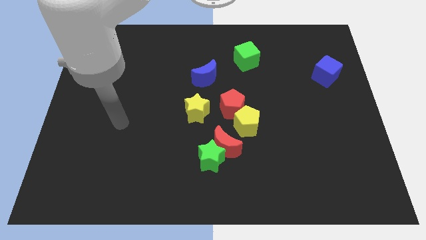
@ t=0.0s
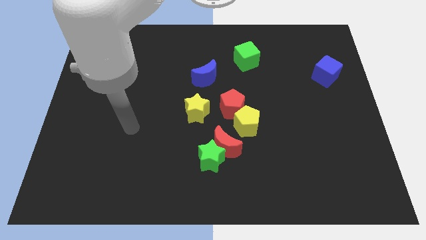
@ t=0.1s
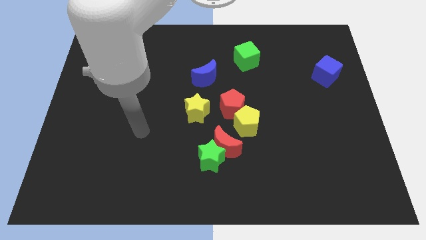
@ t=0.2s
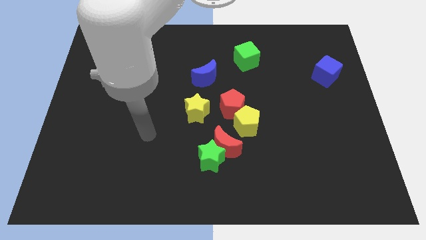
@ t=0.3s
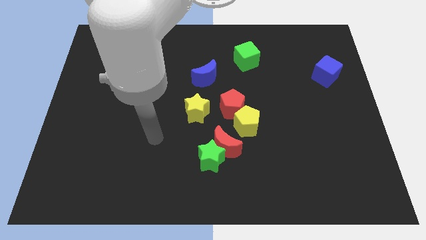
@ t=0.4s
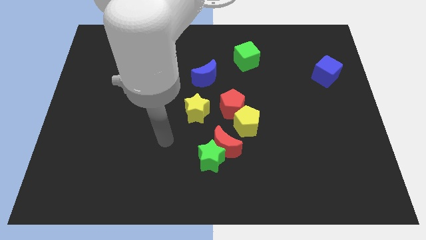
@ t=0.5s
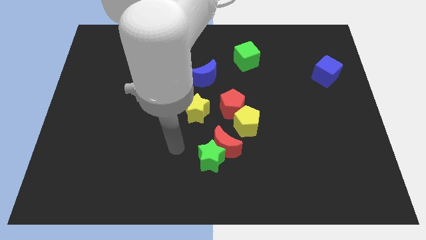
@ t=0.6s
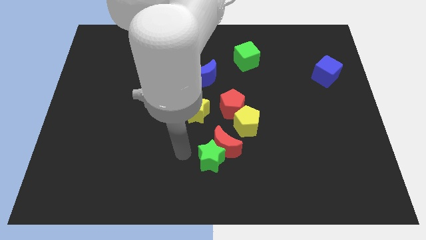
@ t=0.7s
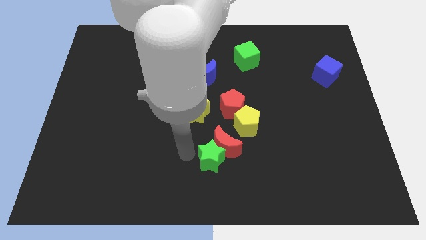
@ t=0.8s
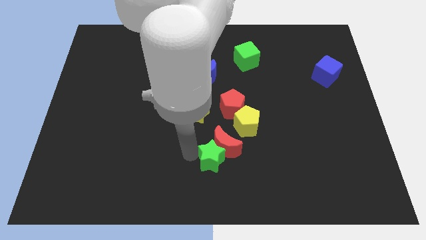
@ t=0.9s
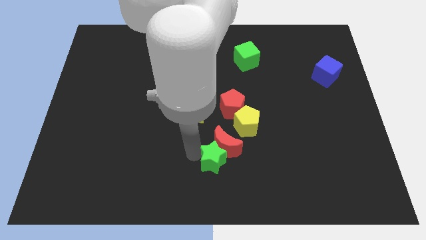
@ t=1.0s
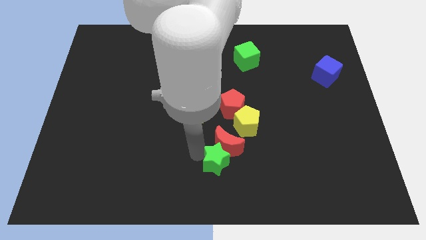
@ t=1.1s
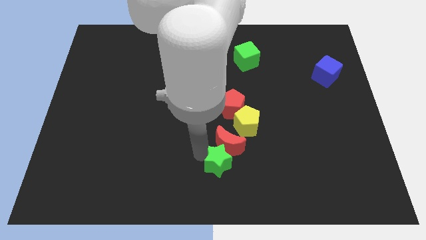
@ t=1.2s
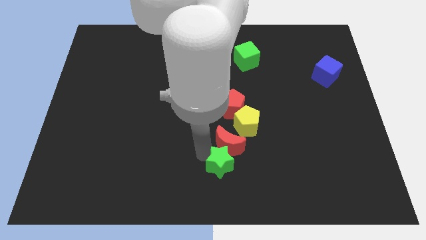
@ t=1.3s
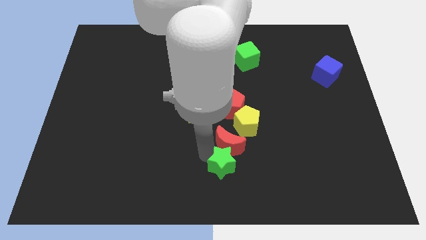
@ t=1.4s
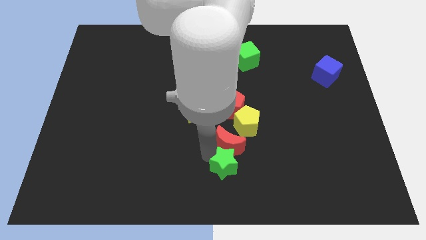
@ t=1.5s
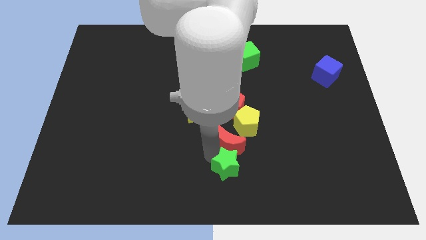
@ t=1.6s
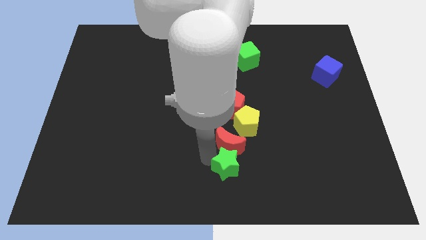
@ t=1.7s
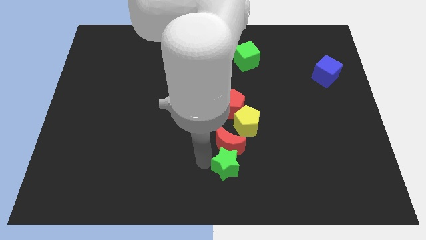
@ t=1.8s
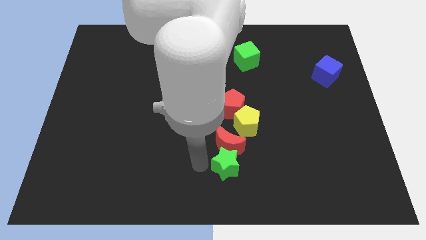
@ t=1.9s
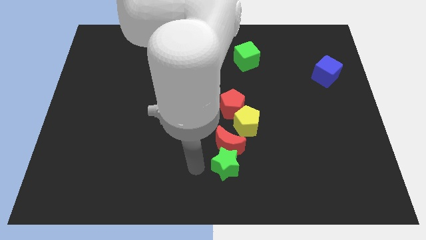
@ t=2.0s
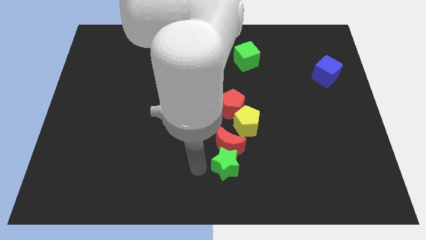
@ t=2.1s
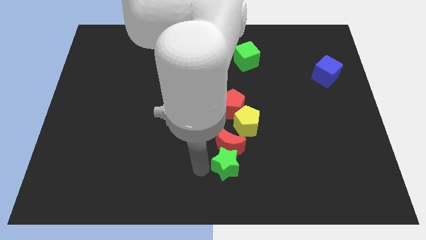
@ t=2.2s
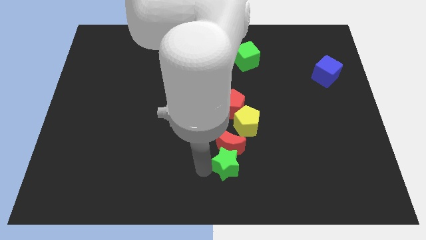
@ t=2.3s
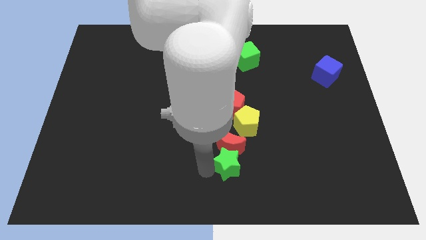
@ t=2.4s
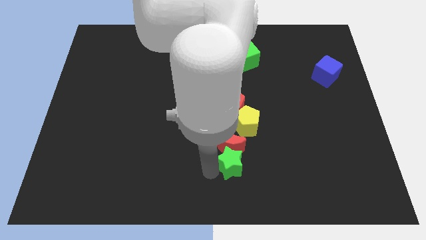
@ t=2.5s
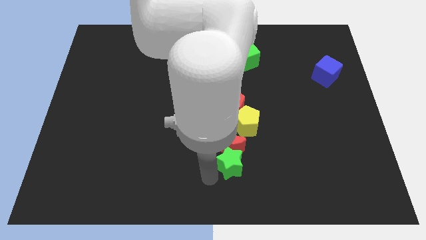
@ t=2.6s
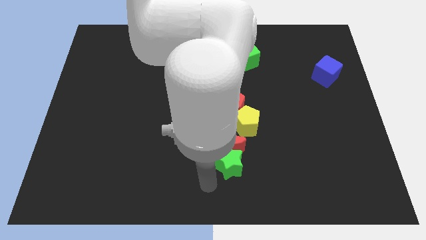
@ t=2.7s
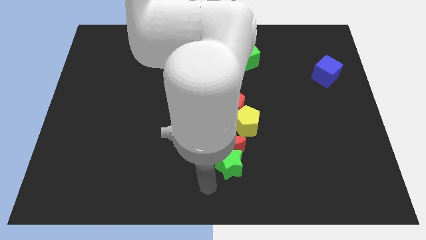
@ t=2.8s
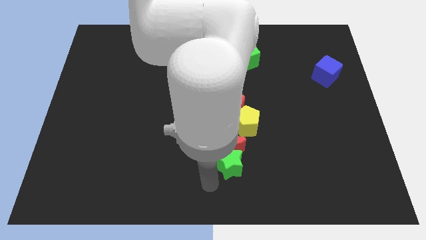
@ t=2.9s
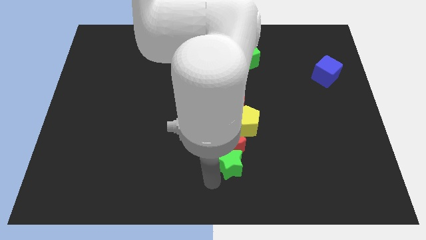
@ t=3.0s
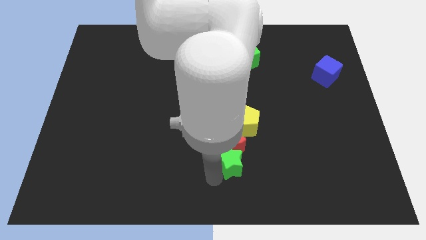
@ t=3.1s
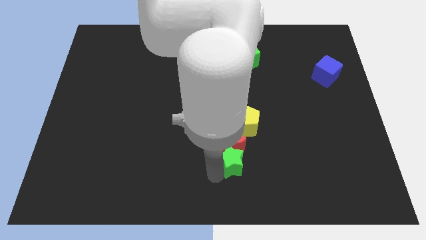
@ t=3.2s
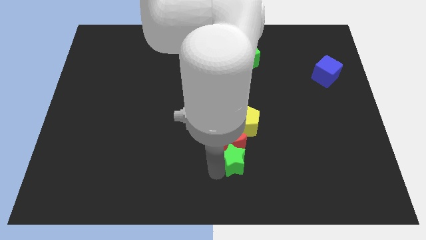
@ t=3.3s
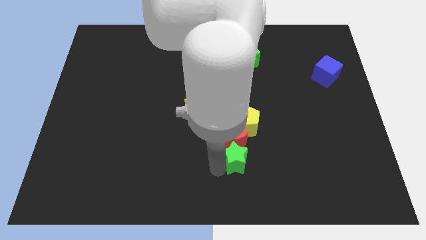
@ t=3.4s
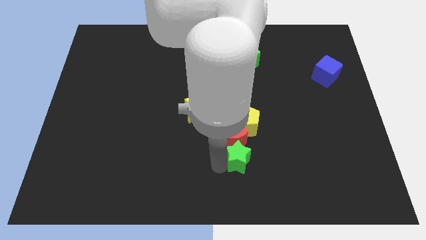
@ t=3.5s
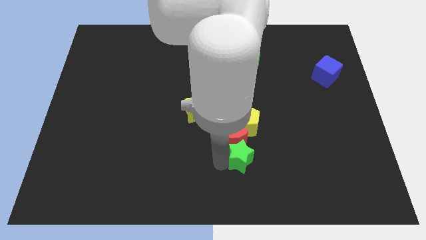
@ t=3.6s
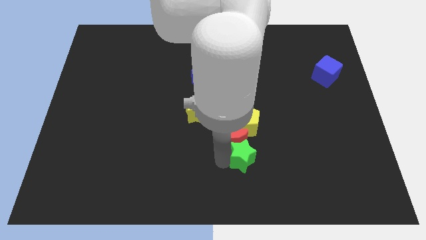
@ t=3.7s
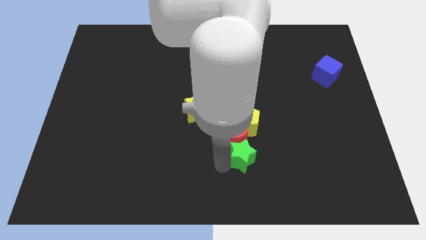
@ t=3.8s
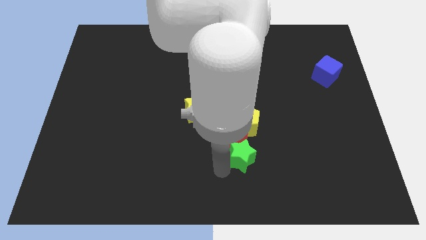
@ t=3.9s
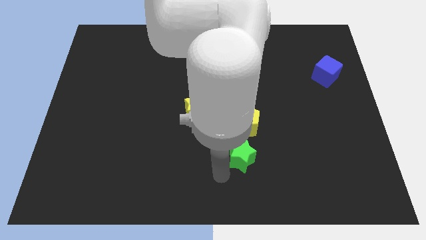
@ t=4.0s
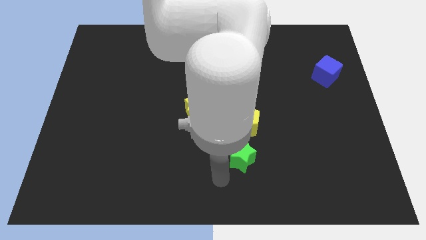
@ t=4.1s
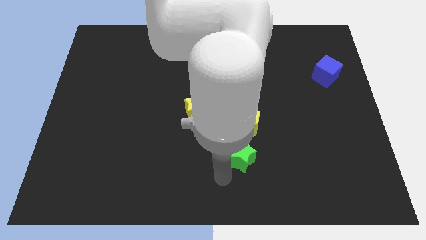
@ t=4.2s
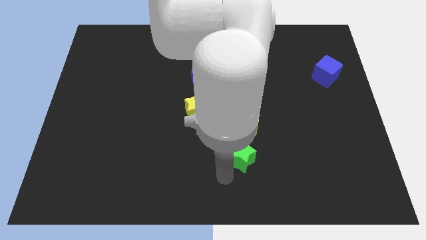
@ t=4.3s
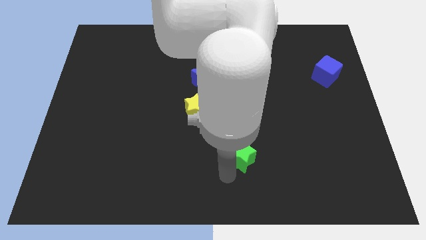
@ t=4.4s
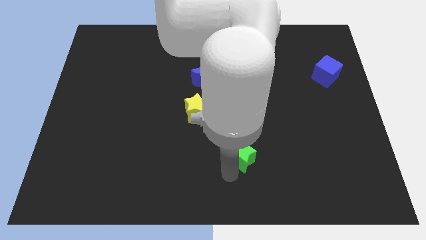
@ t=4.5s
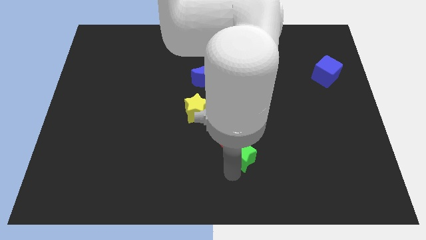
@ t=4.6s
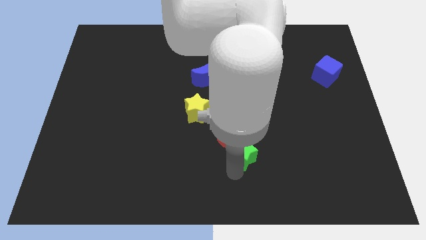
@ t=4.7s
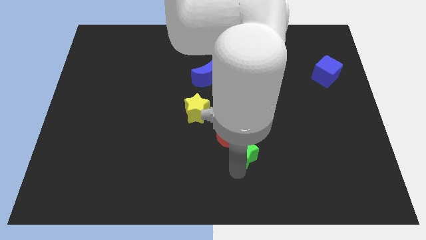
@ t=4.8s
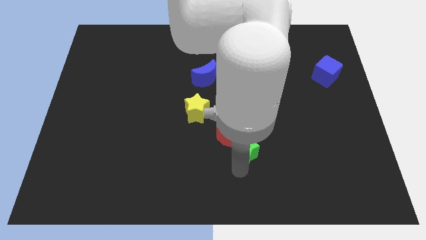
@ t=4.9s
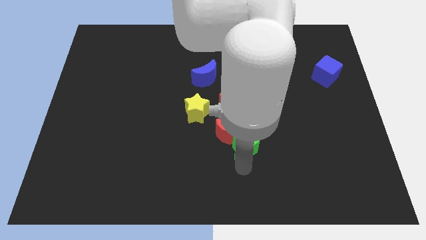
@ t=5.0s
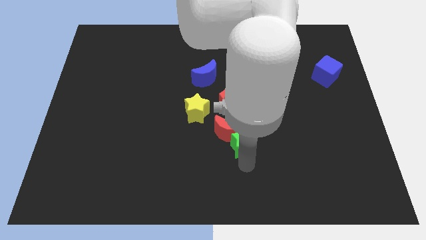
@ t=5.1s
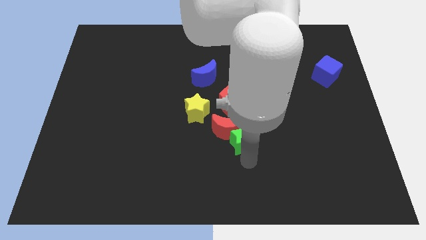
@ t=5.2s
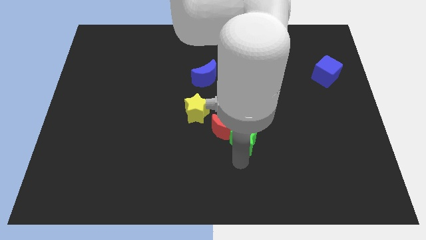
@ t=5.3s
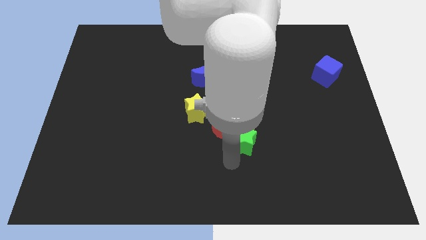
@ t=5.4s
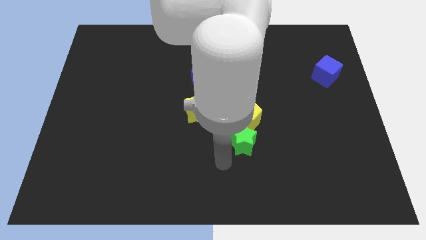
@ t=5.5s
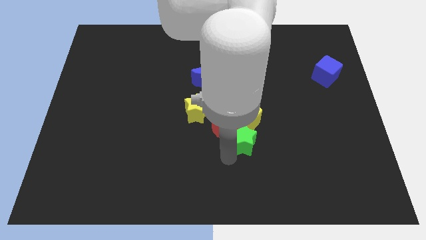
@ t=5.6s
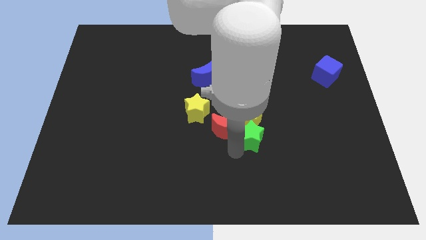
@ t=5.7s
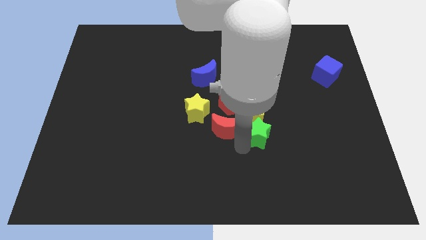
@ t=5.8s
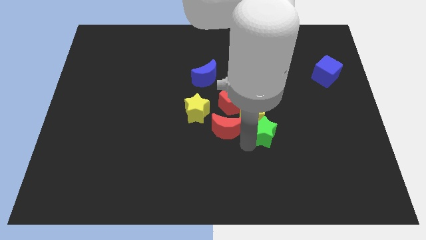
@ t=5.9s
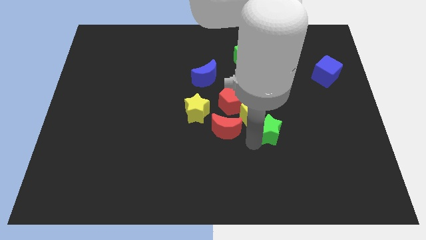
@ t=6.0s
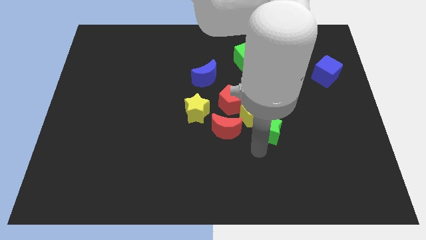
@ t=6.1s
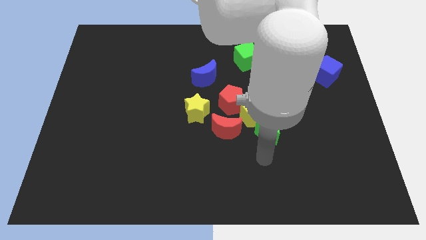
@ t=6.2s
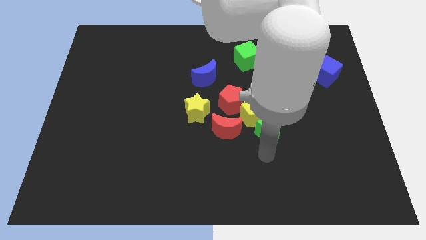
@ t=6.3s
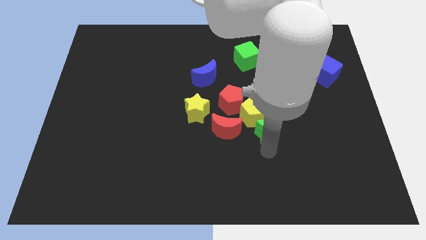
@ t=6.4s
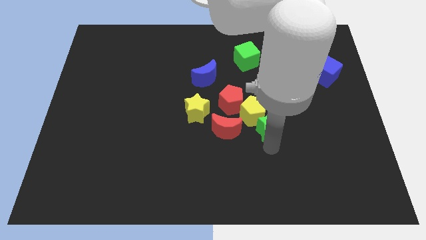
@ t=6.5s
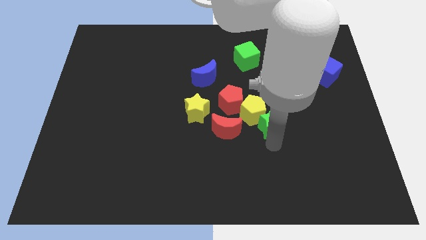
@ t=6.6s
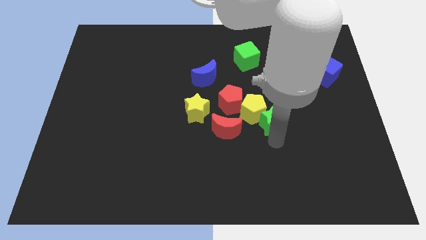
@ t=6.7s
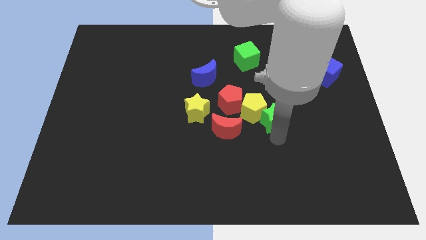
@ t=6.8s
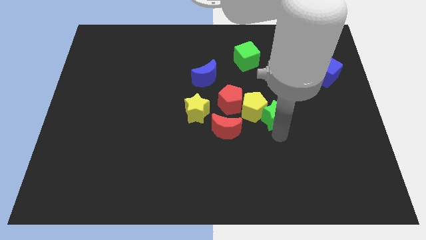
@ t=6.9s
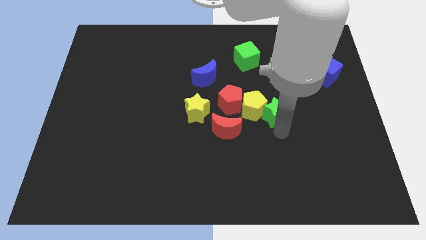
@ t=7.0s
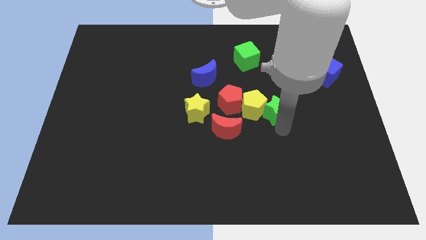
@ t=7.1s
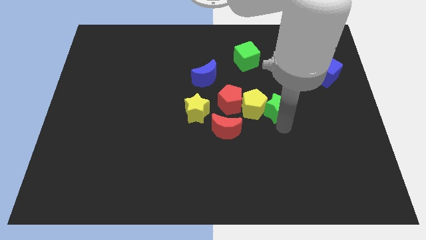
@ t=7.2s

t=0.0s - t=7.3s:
put the green star to the top right side of the yellow pentagon
